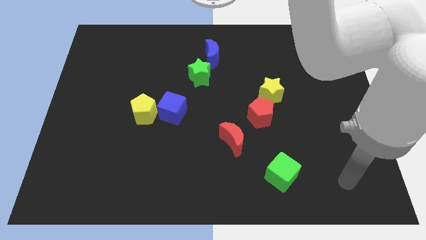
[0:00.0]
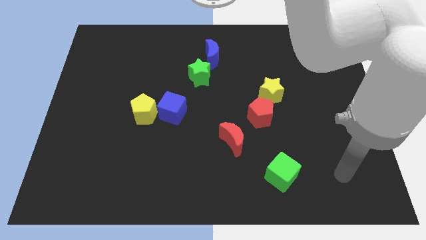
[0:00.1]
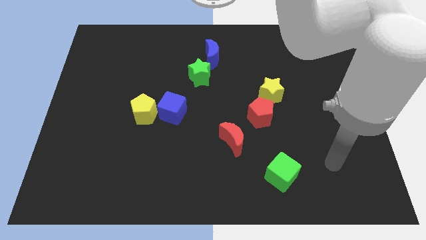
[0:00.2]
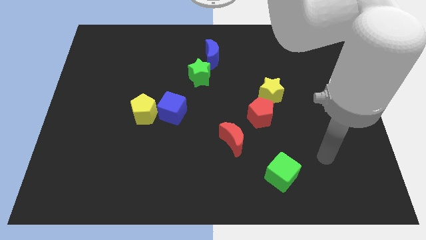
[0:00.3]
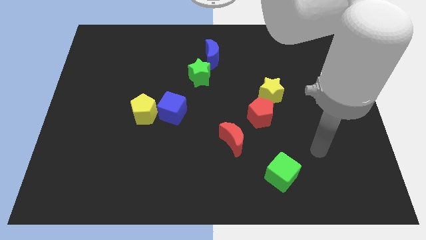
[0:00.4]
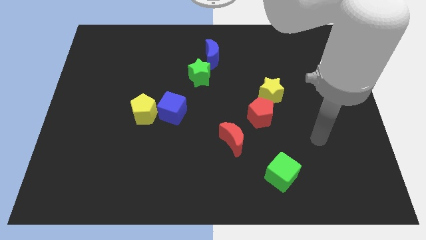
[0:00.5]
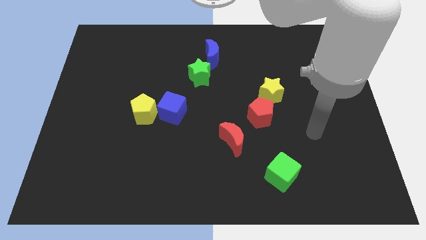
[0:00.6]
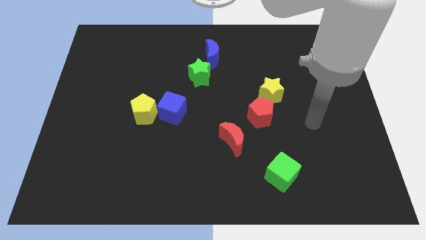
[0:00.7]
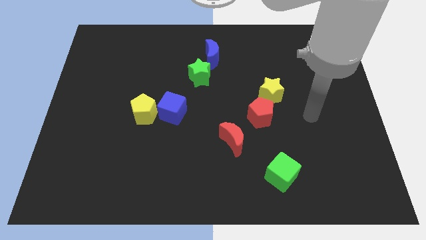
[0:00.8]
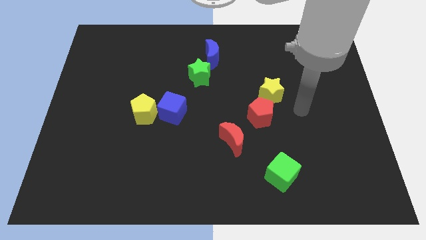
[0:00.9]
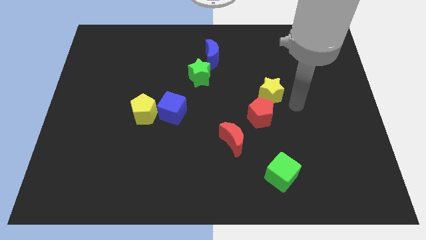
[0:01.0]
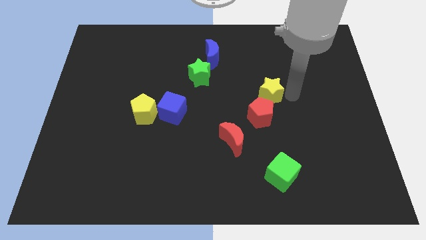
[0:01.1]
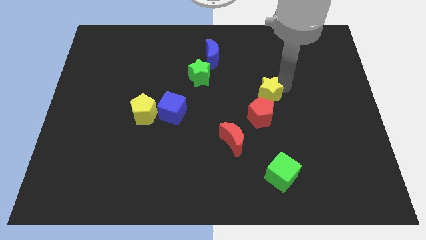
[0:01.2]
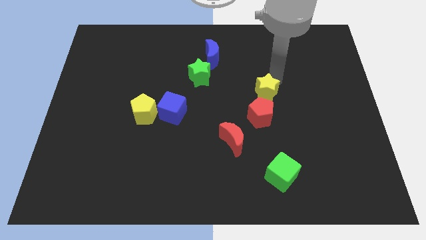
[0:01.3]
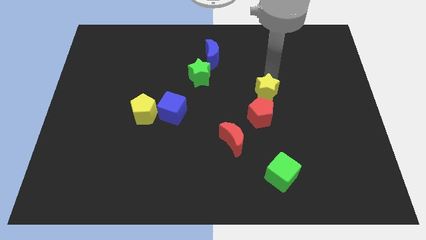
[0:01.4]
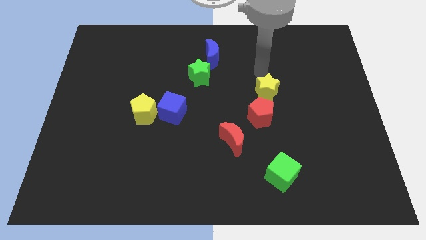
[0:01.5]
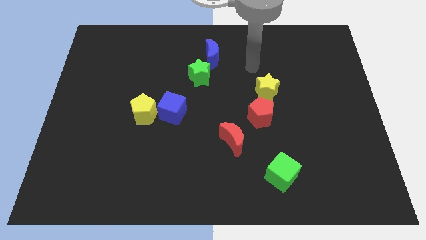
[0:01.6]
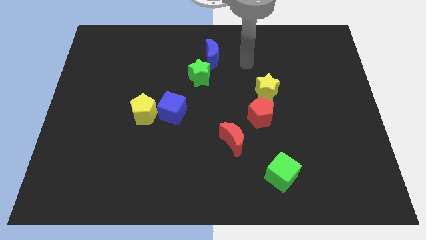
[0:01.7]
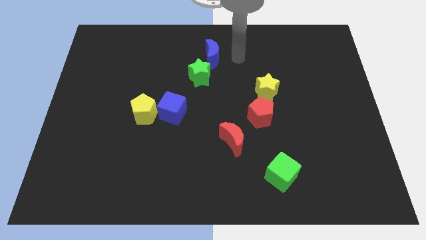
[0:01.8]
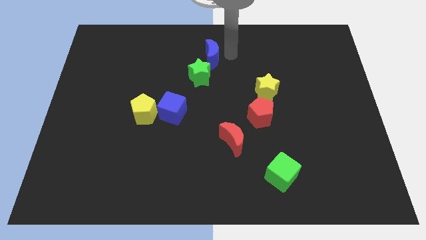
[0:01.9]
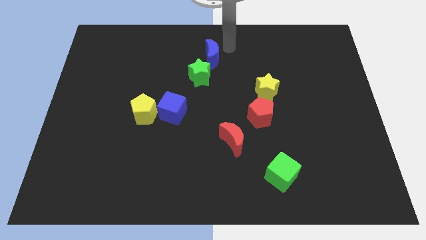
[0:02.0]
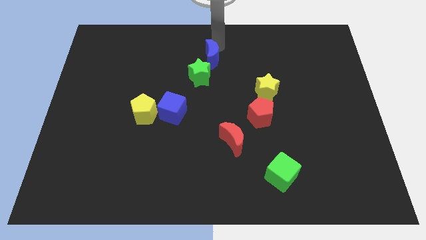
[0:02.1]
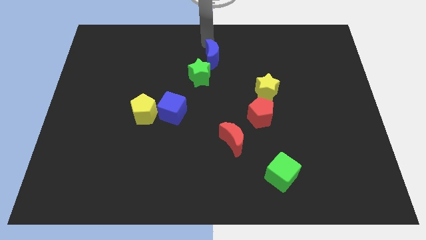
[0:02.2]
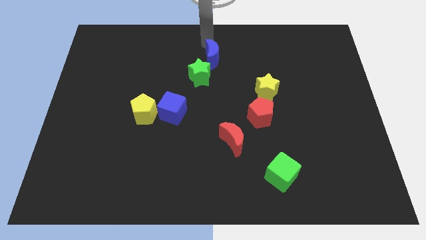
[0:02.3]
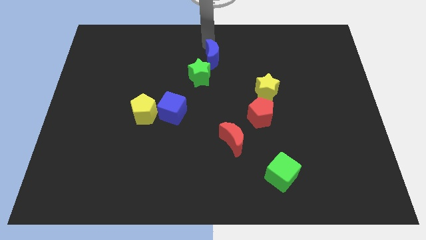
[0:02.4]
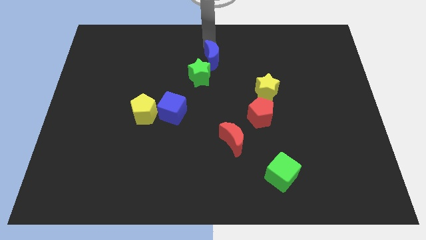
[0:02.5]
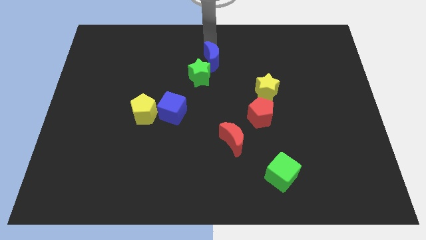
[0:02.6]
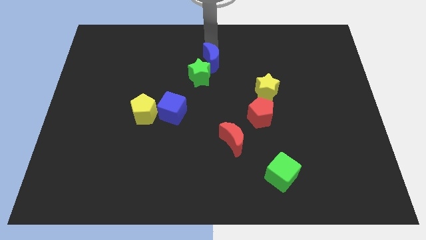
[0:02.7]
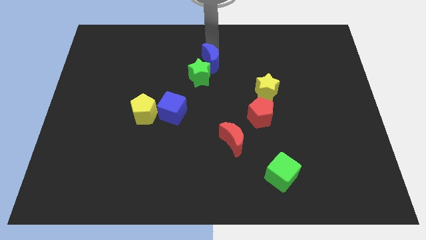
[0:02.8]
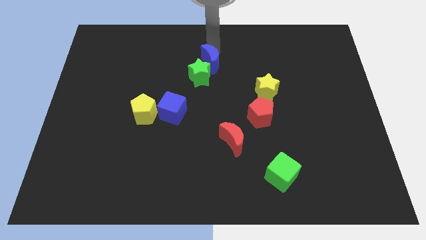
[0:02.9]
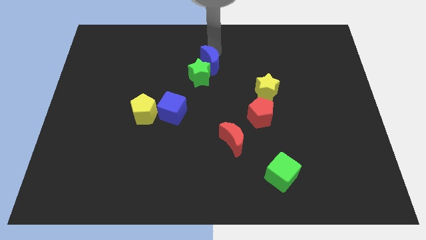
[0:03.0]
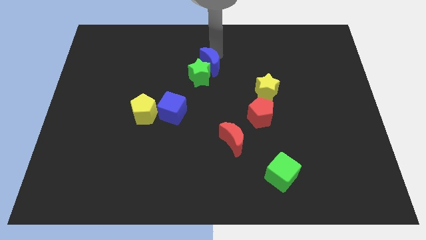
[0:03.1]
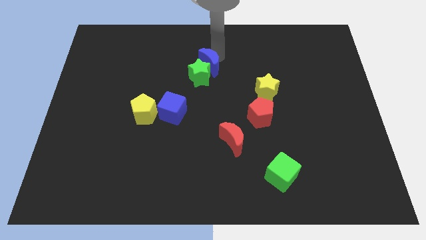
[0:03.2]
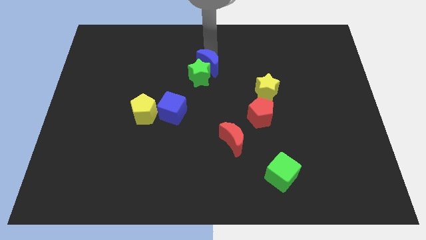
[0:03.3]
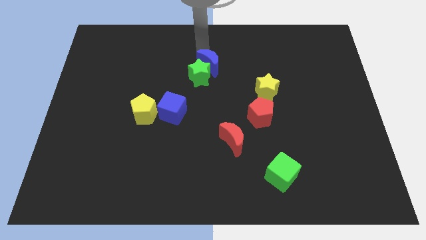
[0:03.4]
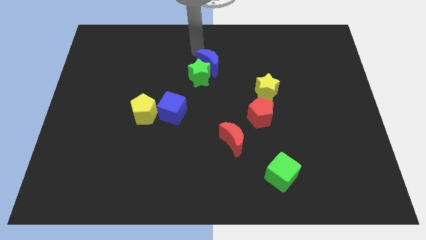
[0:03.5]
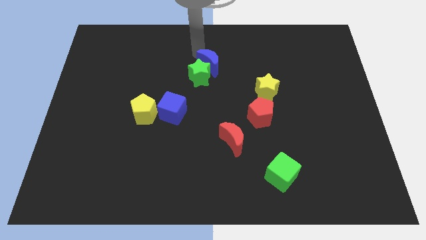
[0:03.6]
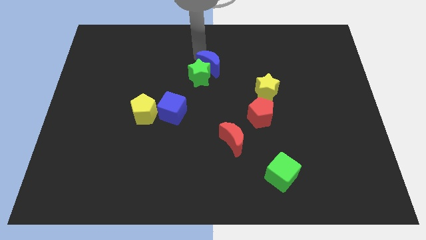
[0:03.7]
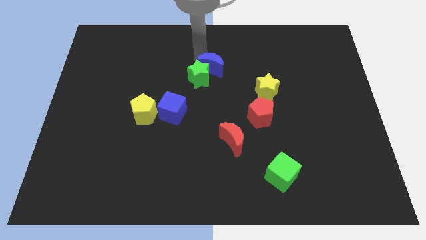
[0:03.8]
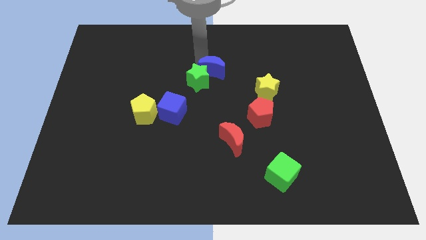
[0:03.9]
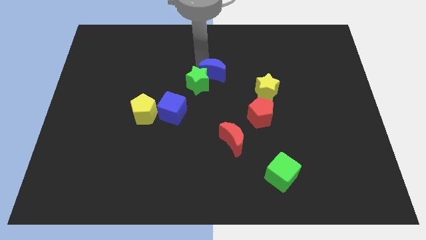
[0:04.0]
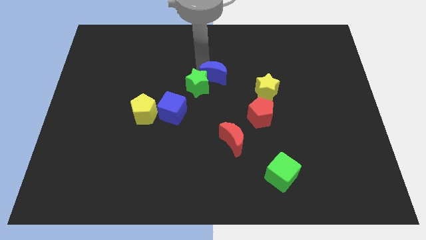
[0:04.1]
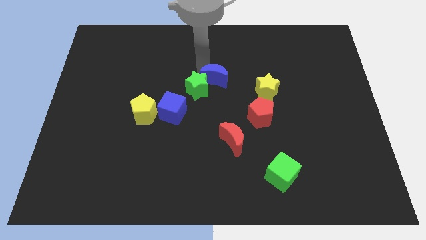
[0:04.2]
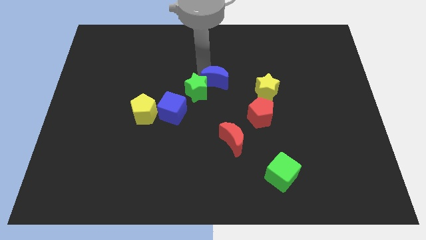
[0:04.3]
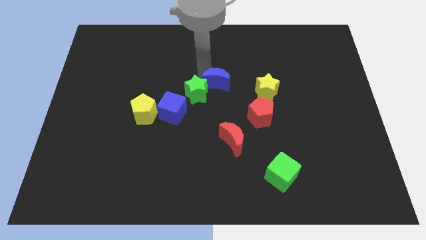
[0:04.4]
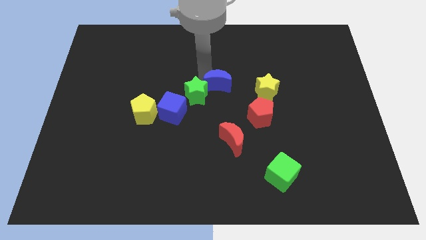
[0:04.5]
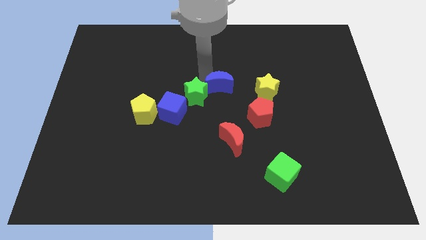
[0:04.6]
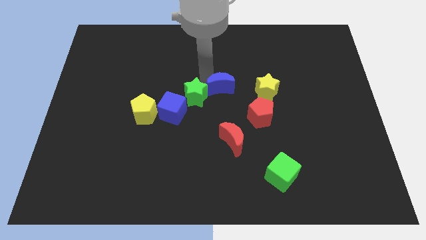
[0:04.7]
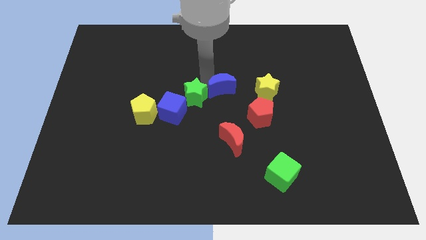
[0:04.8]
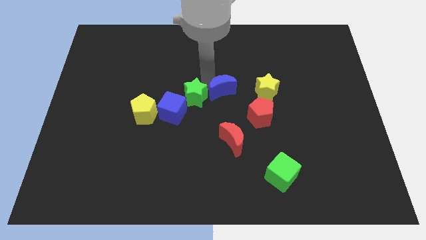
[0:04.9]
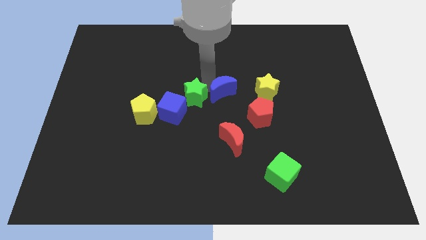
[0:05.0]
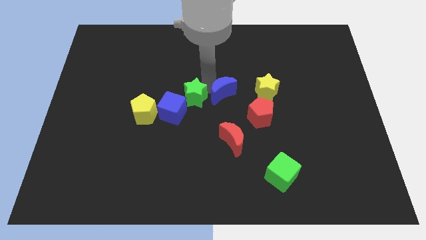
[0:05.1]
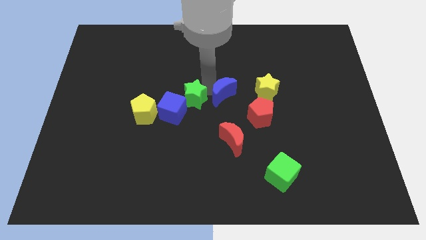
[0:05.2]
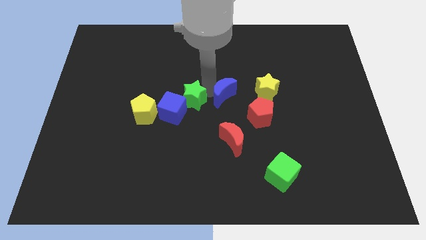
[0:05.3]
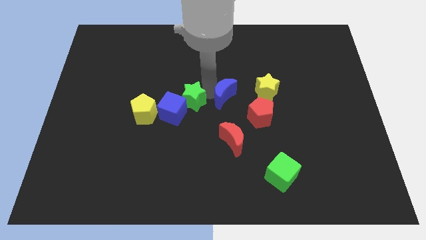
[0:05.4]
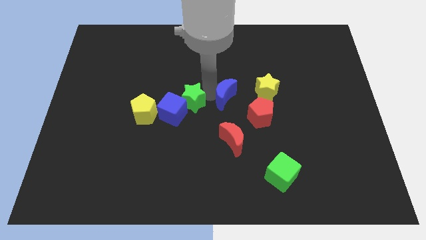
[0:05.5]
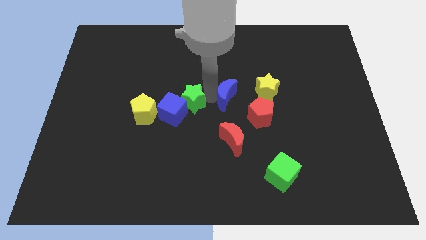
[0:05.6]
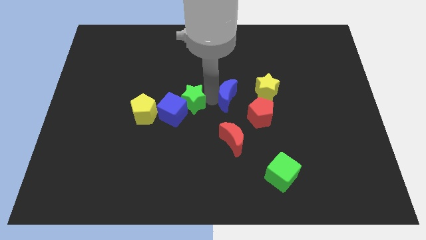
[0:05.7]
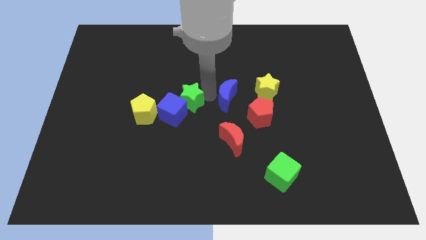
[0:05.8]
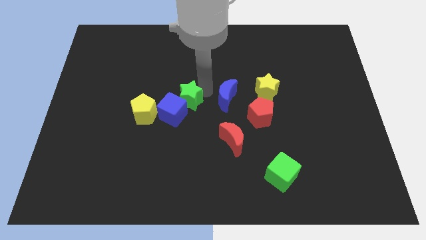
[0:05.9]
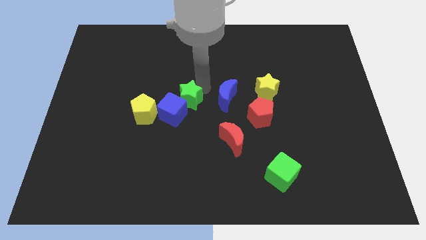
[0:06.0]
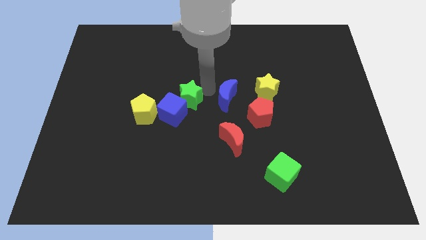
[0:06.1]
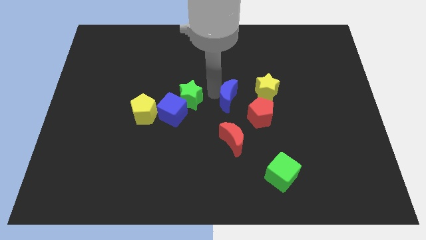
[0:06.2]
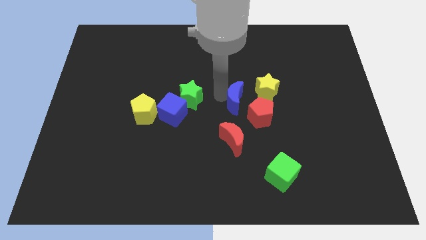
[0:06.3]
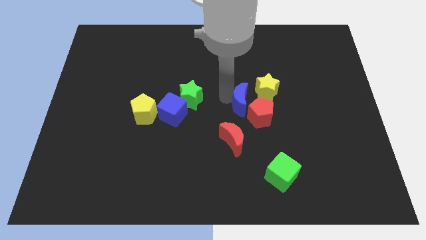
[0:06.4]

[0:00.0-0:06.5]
put the blue moon next to the red pentagon

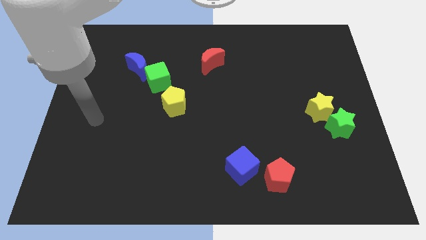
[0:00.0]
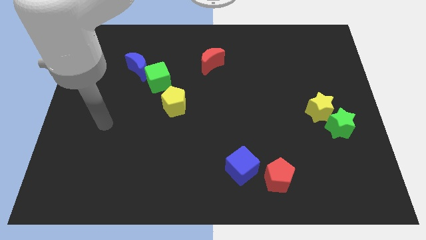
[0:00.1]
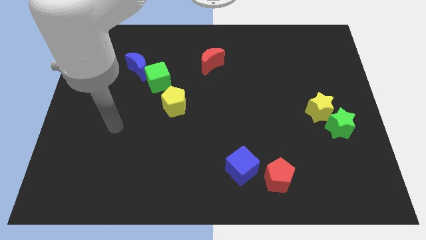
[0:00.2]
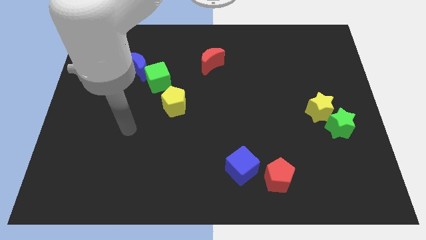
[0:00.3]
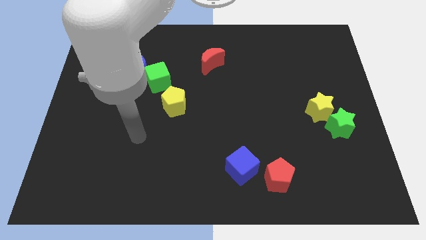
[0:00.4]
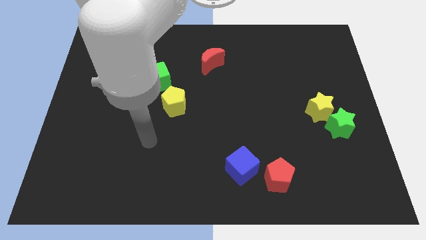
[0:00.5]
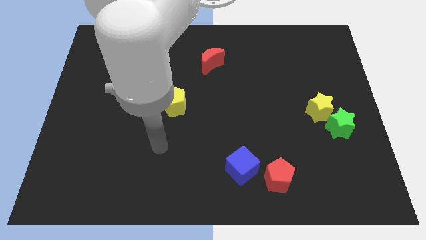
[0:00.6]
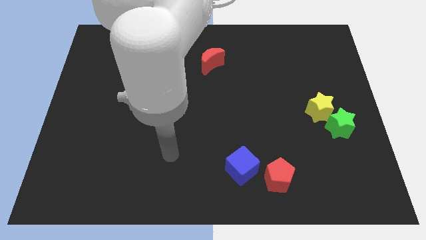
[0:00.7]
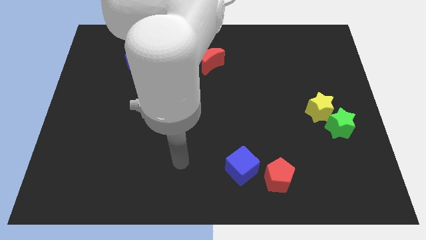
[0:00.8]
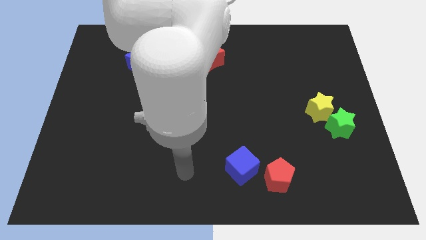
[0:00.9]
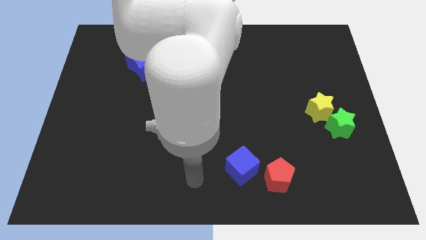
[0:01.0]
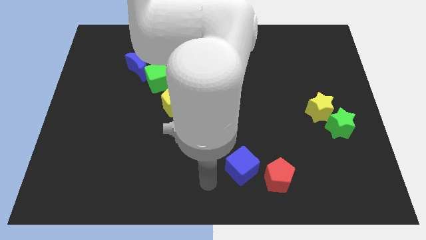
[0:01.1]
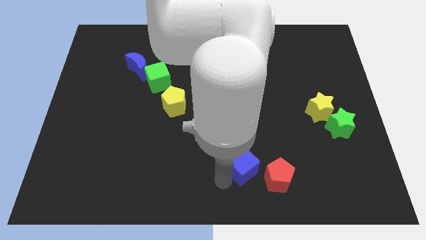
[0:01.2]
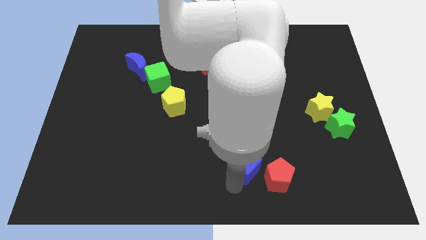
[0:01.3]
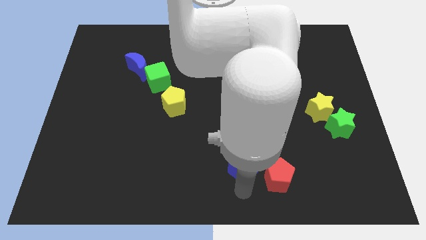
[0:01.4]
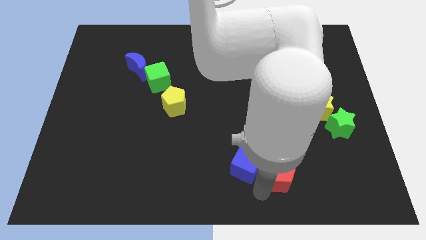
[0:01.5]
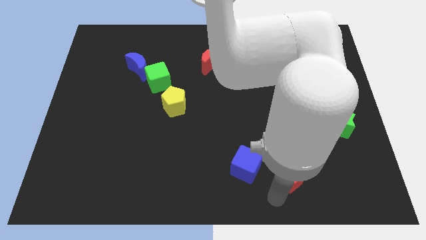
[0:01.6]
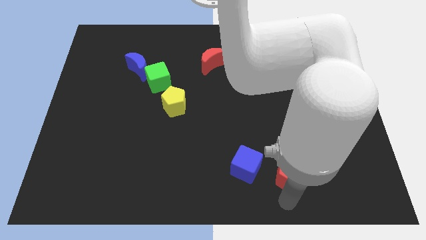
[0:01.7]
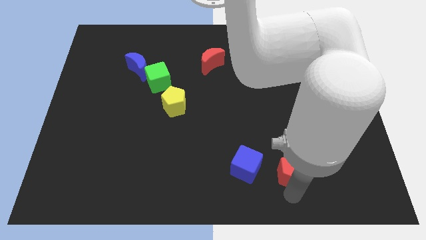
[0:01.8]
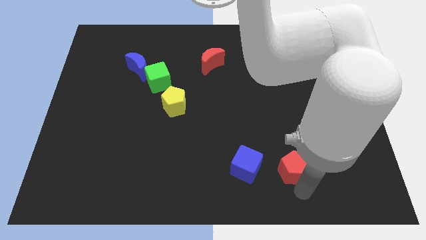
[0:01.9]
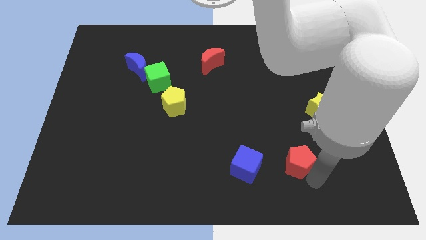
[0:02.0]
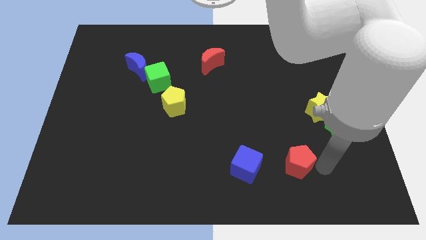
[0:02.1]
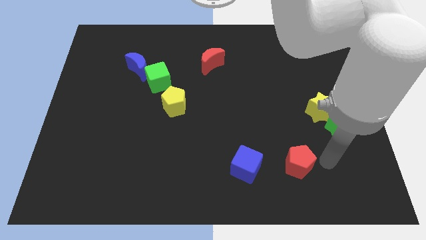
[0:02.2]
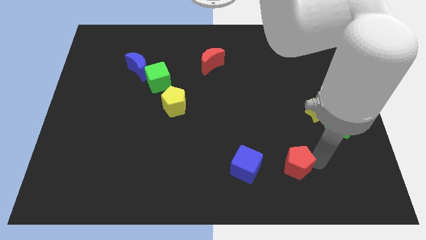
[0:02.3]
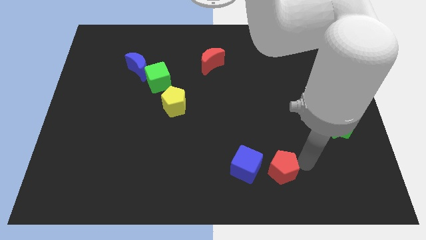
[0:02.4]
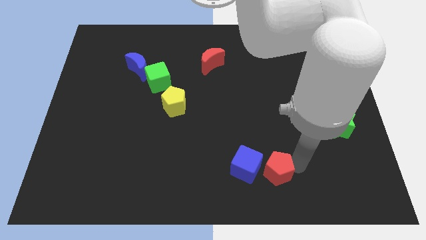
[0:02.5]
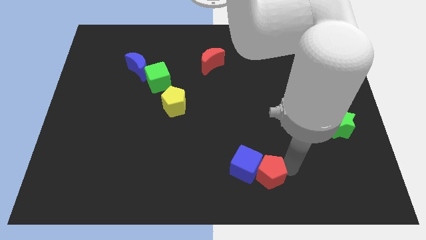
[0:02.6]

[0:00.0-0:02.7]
push the red pentagon close to the blue cube
